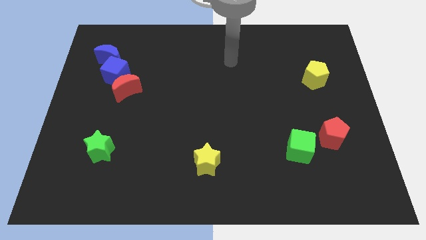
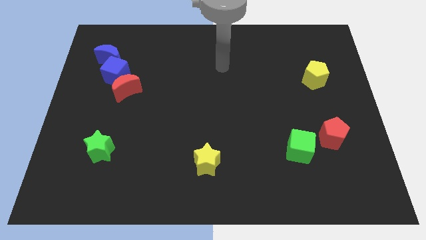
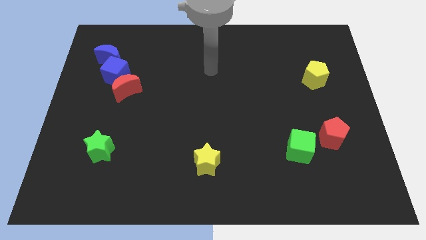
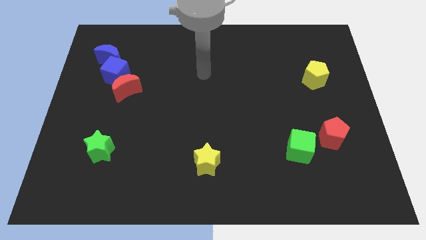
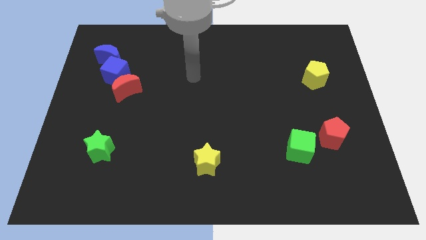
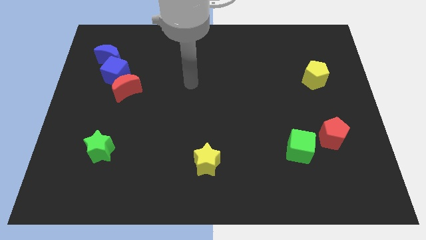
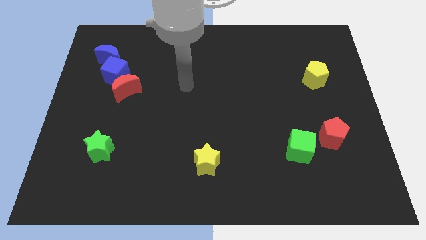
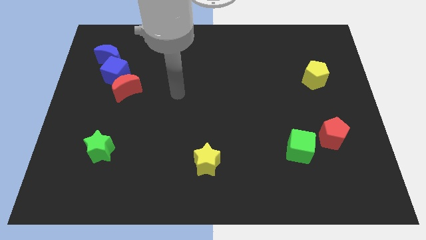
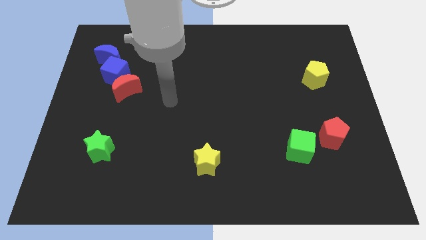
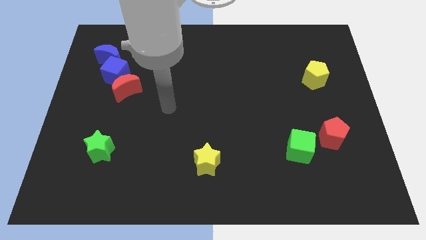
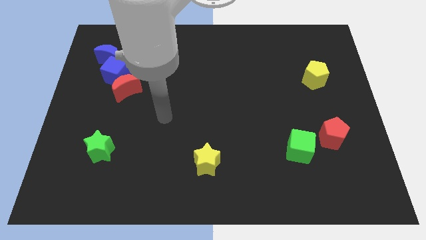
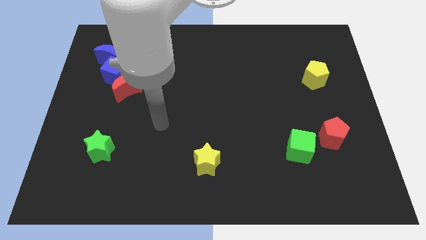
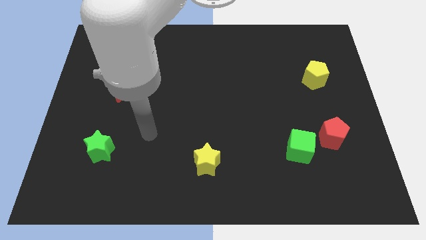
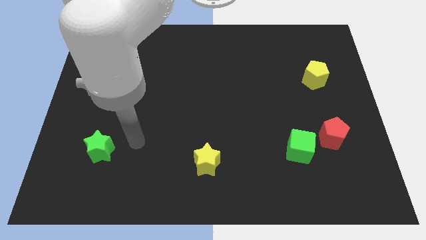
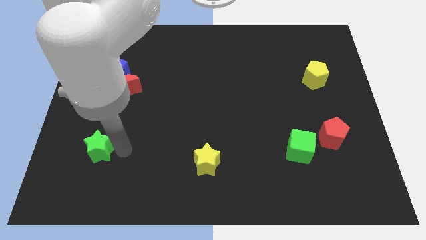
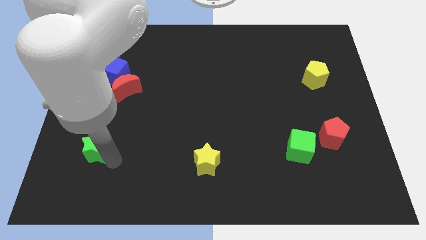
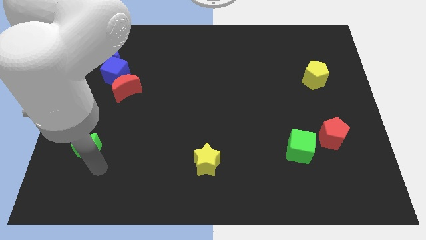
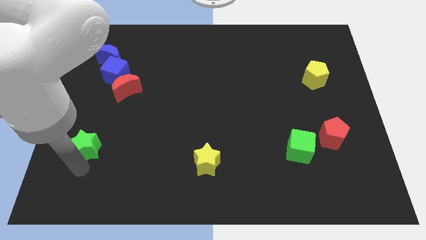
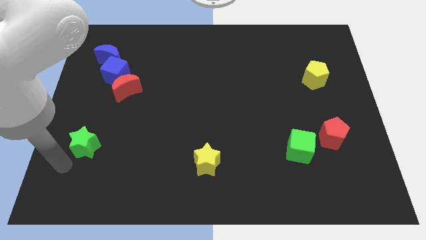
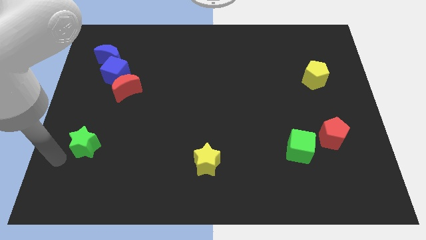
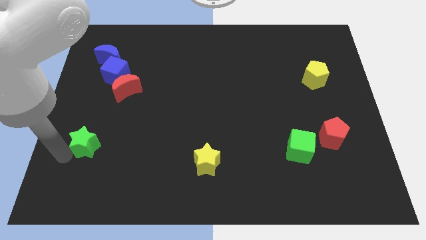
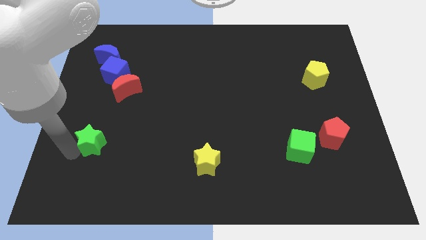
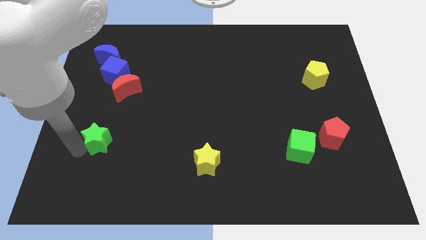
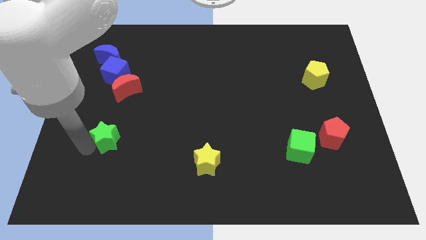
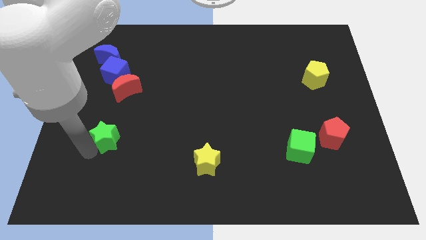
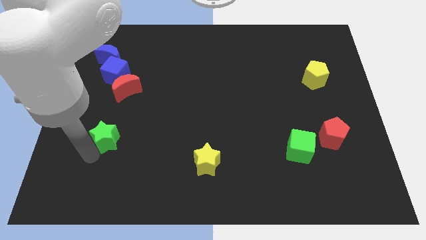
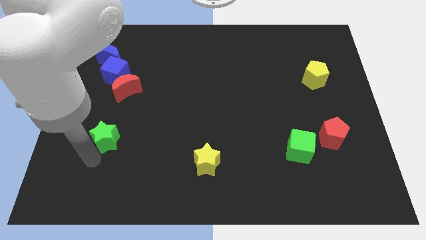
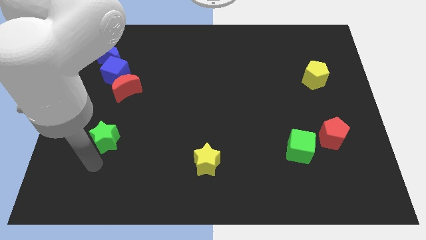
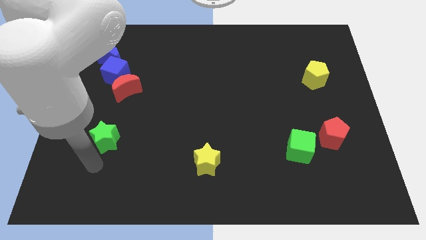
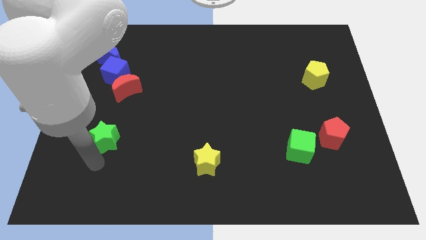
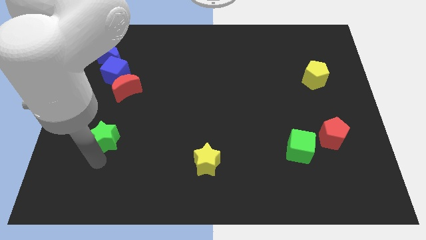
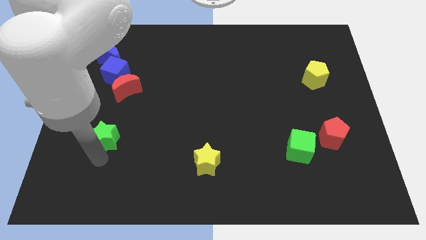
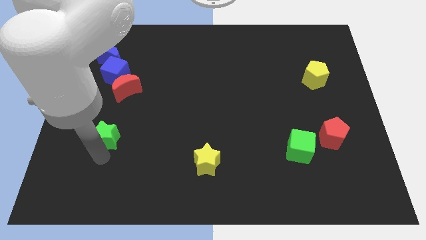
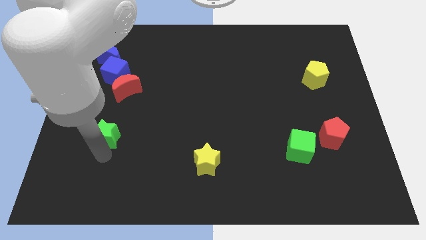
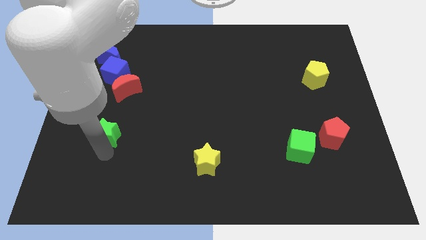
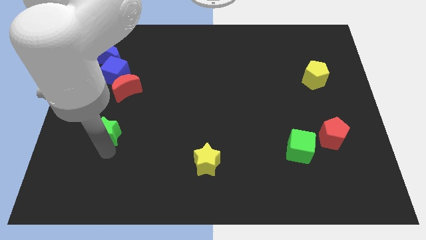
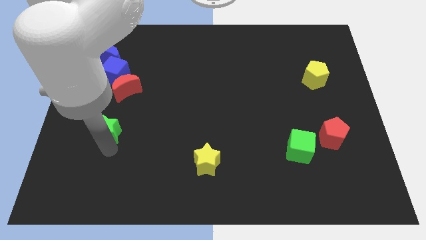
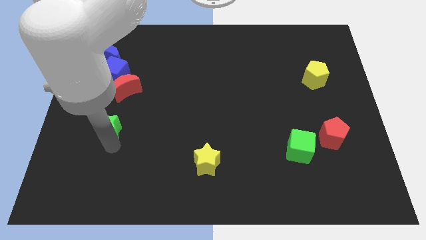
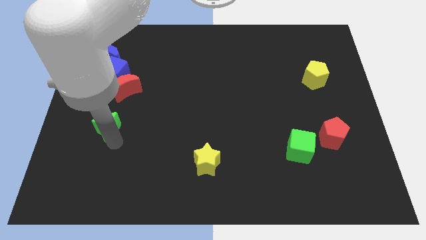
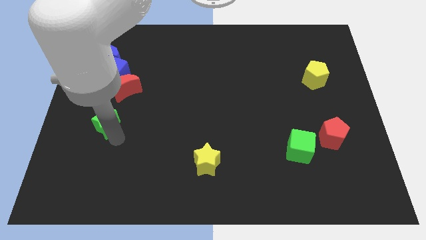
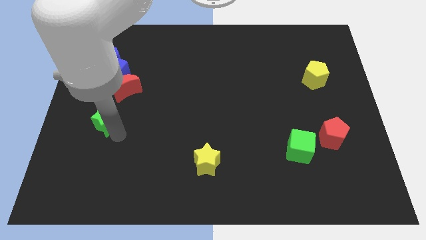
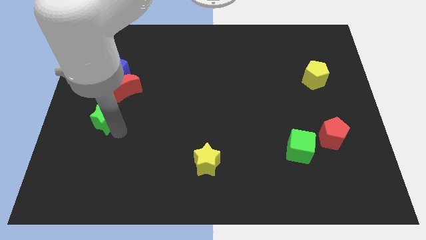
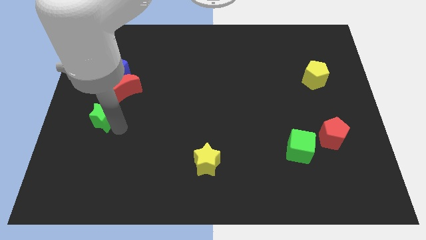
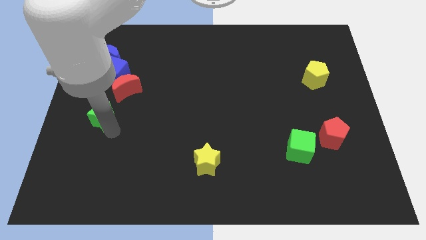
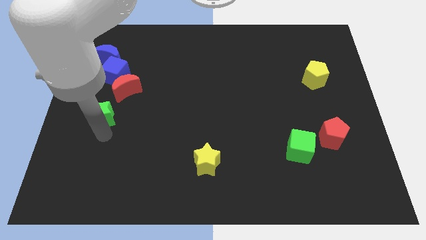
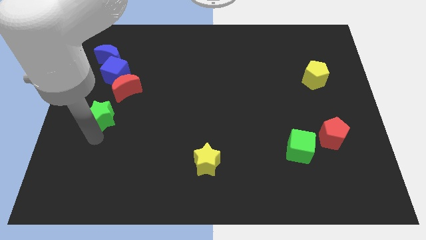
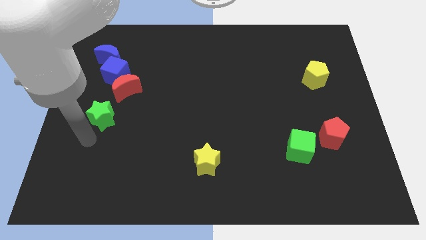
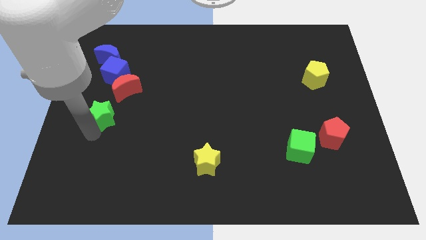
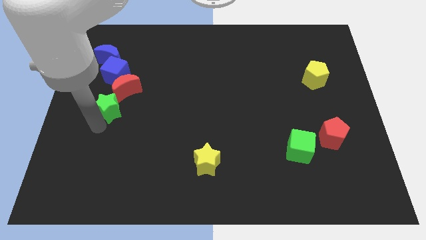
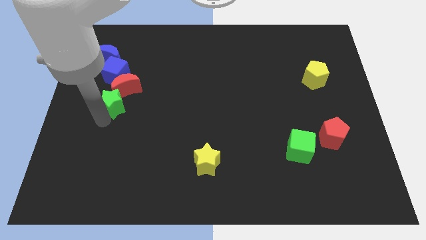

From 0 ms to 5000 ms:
push the green star close to the red moon
